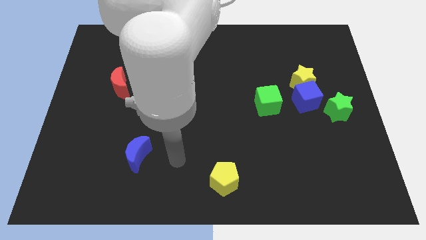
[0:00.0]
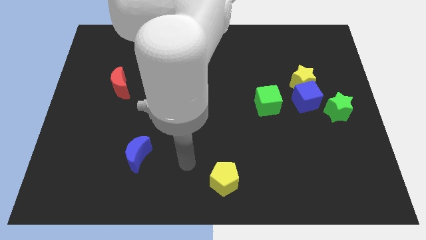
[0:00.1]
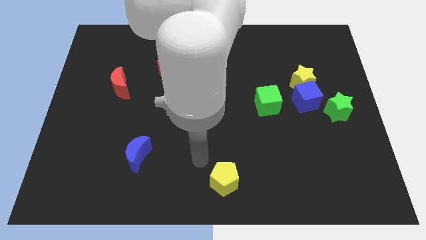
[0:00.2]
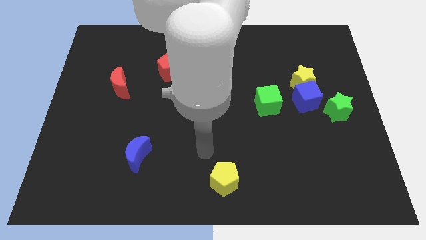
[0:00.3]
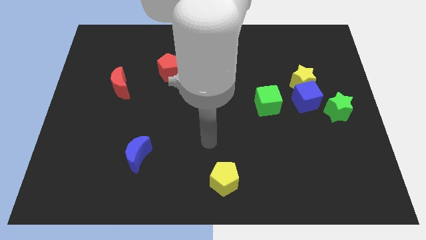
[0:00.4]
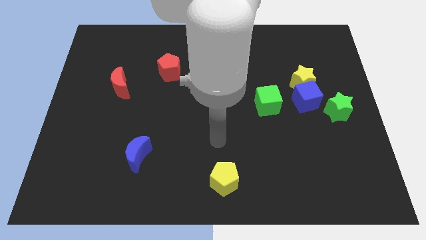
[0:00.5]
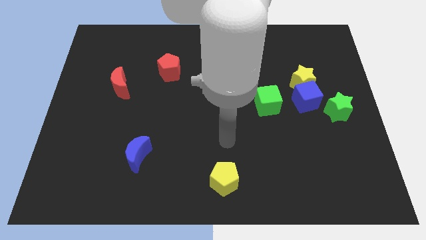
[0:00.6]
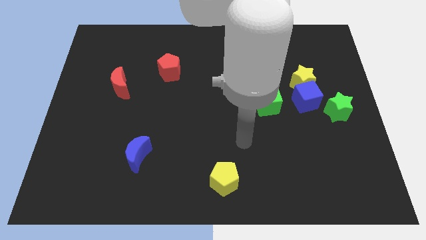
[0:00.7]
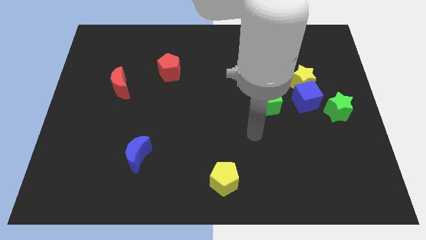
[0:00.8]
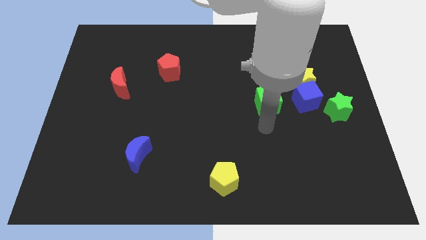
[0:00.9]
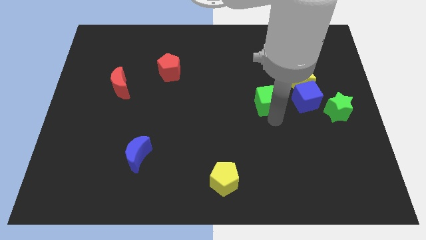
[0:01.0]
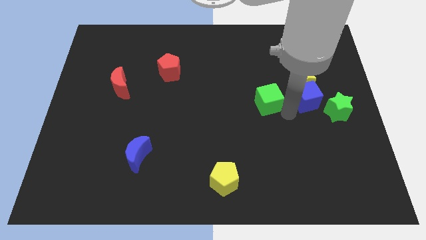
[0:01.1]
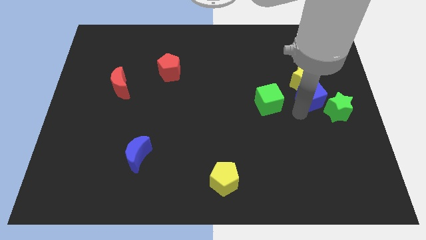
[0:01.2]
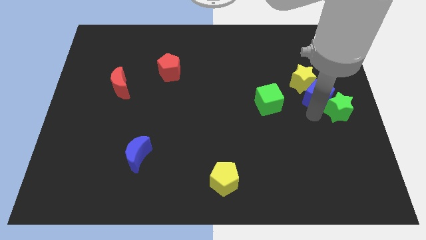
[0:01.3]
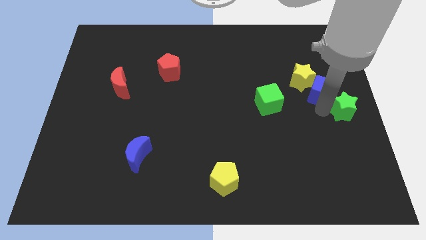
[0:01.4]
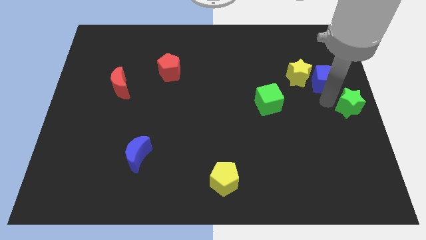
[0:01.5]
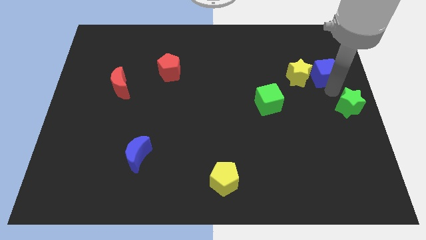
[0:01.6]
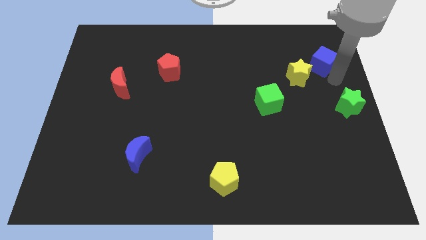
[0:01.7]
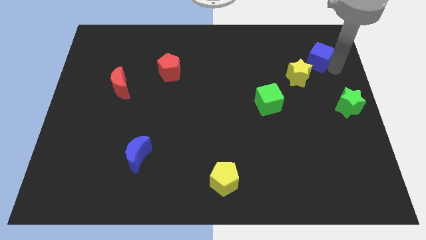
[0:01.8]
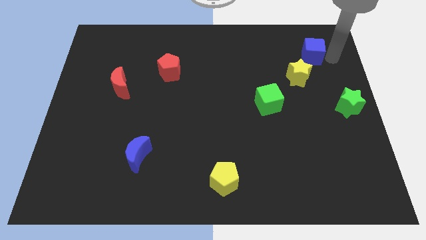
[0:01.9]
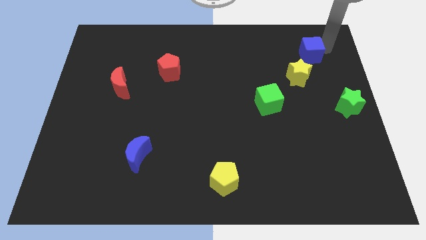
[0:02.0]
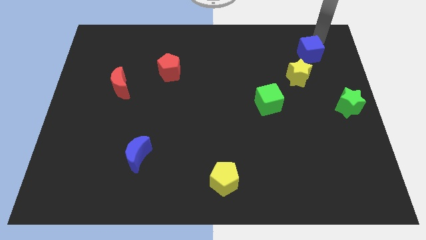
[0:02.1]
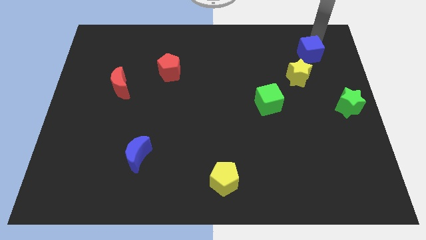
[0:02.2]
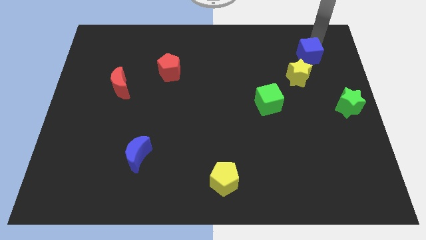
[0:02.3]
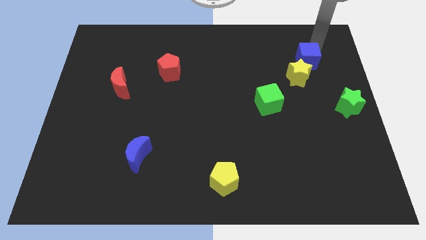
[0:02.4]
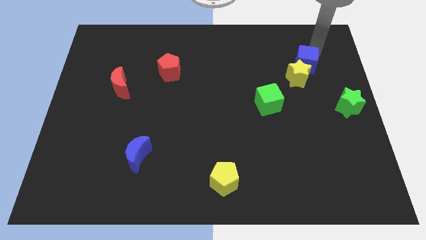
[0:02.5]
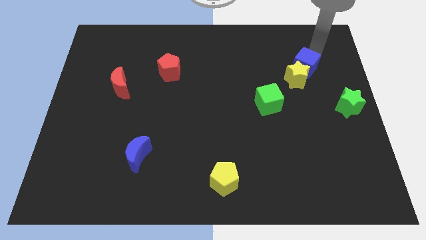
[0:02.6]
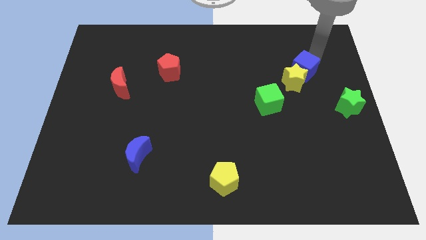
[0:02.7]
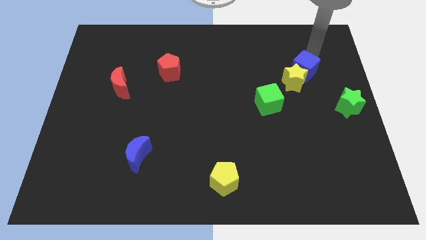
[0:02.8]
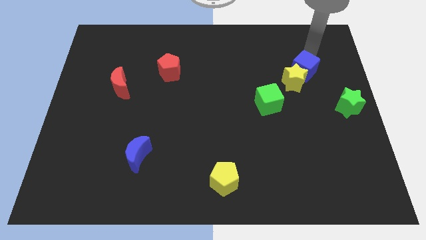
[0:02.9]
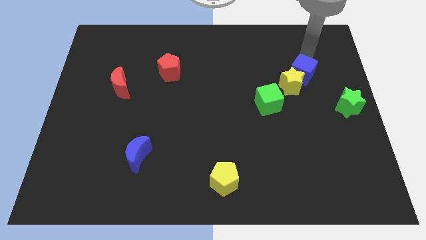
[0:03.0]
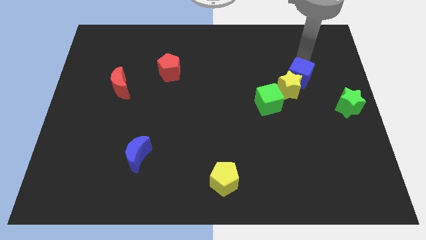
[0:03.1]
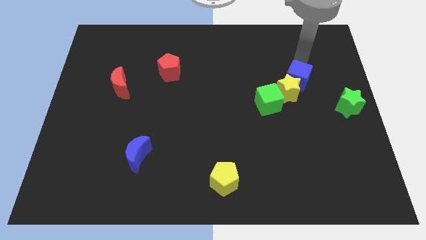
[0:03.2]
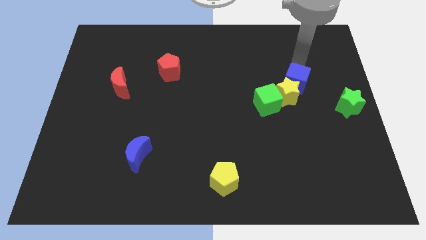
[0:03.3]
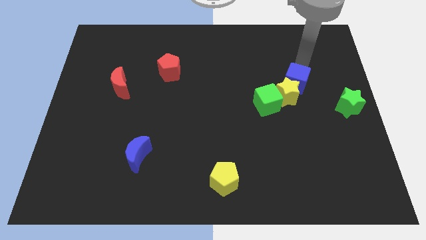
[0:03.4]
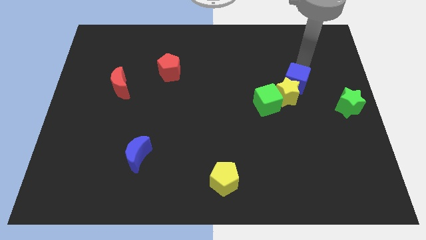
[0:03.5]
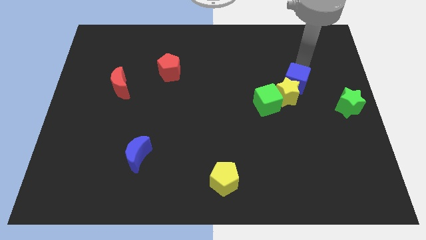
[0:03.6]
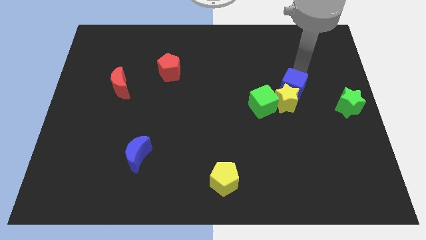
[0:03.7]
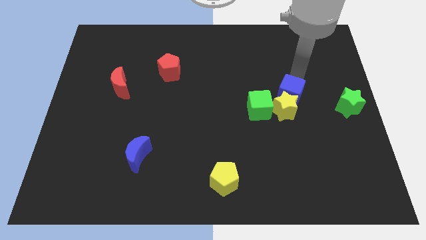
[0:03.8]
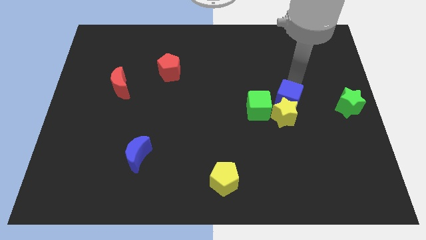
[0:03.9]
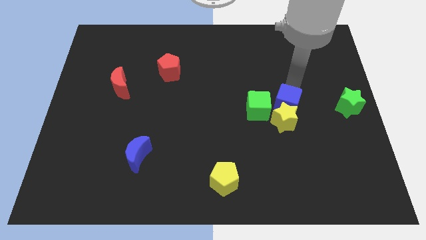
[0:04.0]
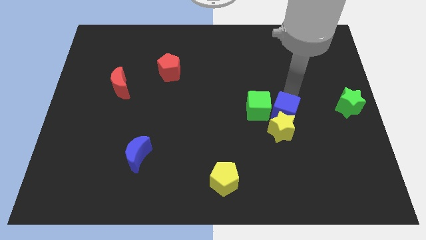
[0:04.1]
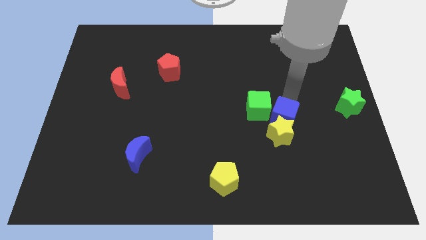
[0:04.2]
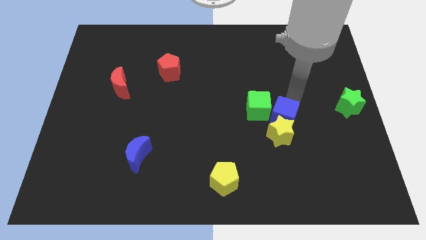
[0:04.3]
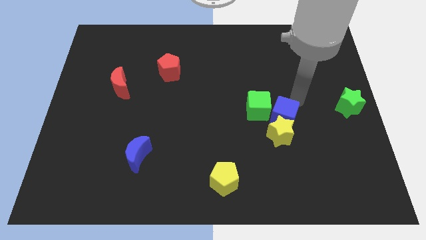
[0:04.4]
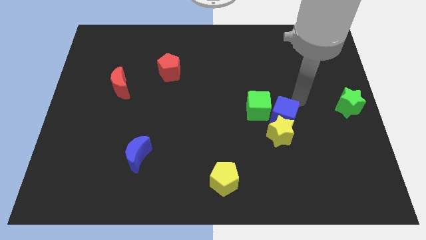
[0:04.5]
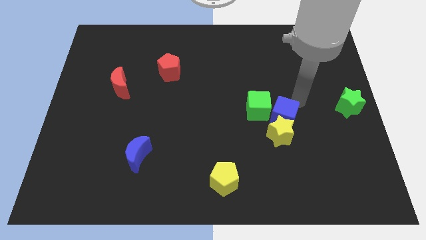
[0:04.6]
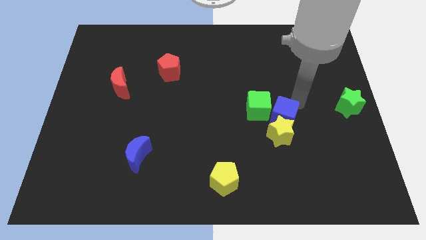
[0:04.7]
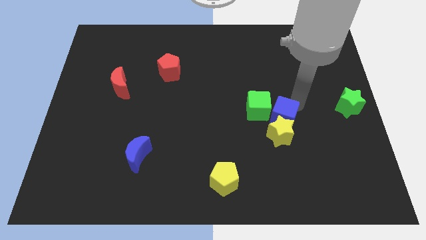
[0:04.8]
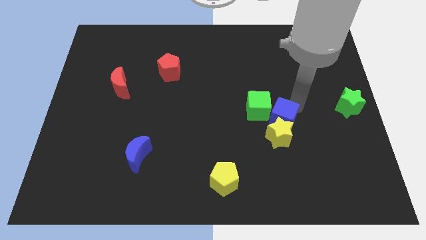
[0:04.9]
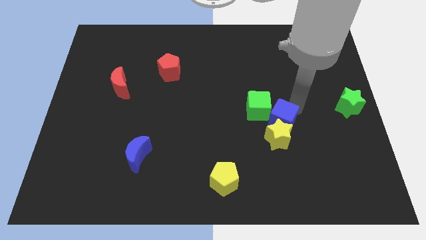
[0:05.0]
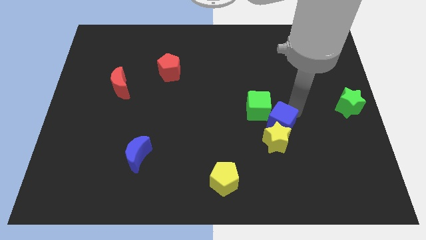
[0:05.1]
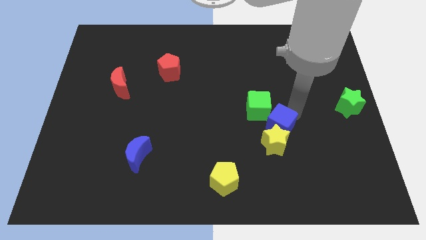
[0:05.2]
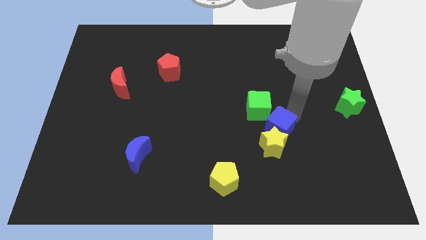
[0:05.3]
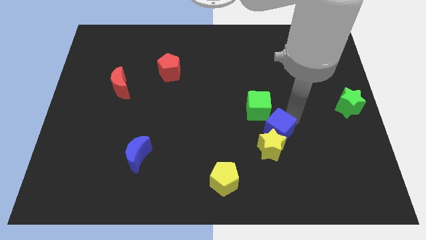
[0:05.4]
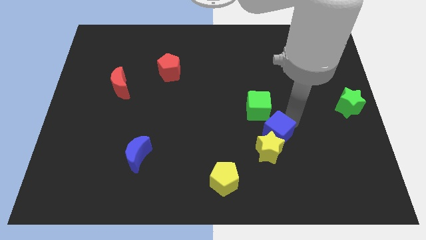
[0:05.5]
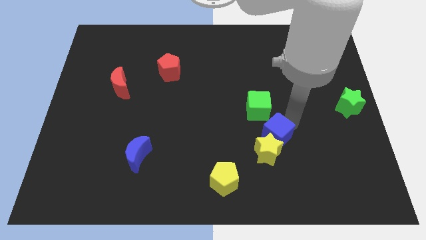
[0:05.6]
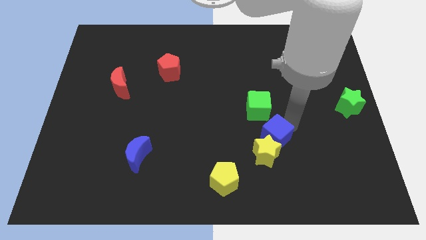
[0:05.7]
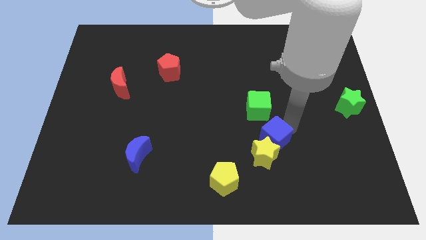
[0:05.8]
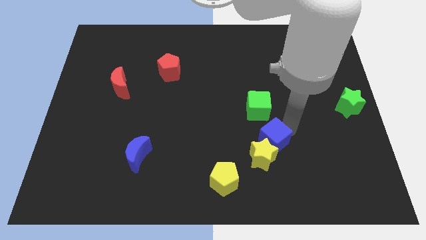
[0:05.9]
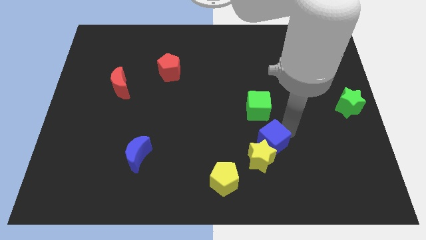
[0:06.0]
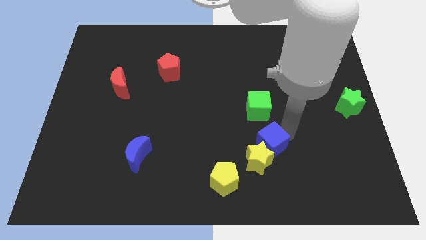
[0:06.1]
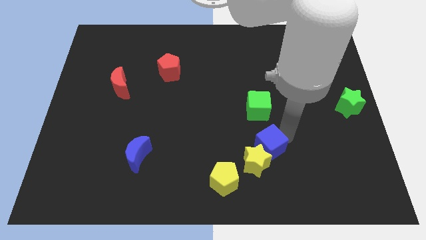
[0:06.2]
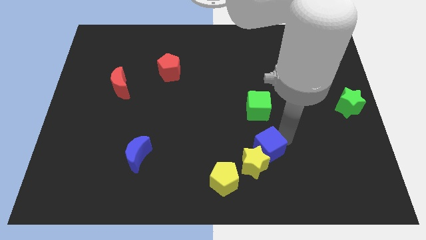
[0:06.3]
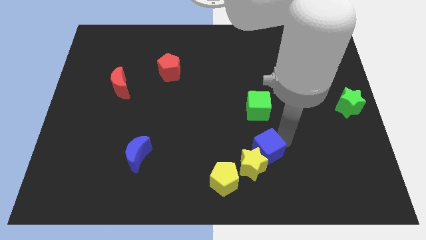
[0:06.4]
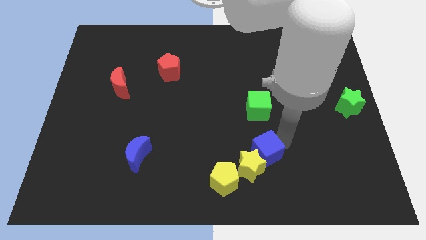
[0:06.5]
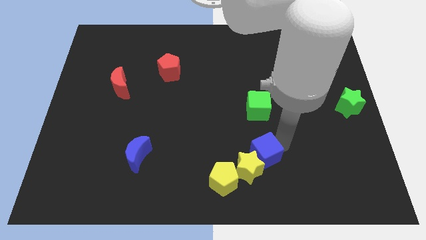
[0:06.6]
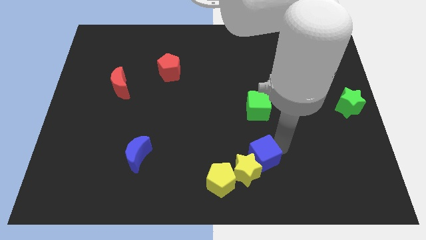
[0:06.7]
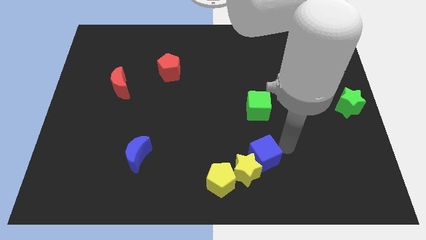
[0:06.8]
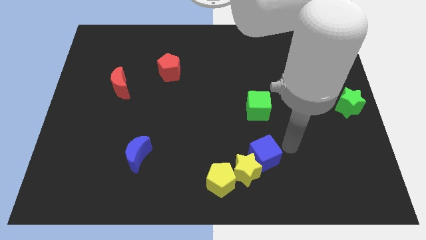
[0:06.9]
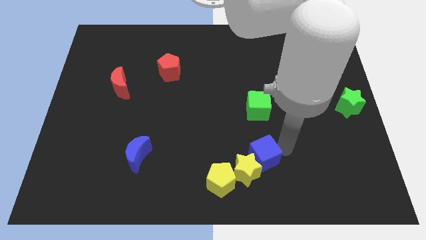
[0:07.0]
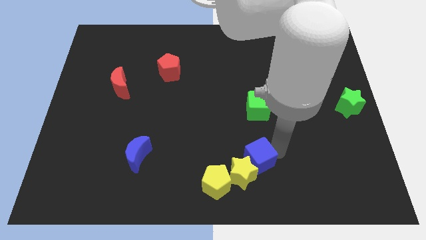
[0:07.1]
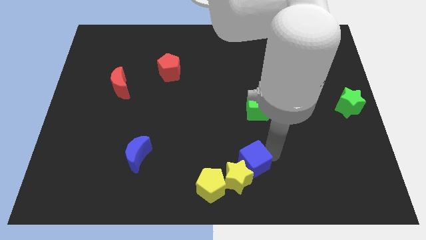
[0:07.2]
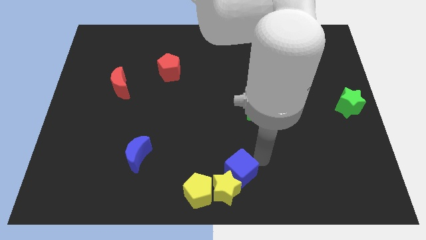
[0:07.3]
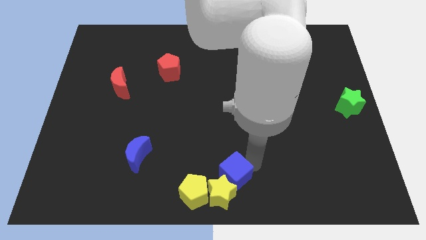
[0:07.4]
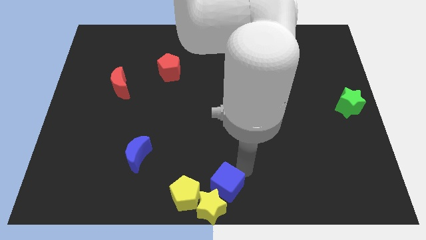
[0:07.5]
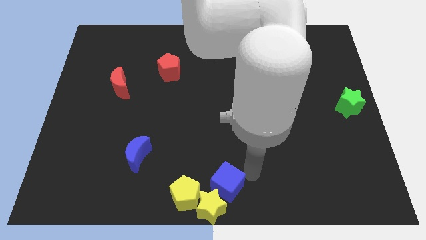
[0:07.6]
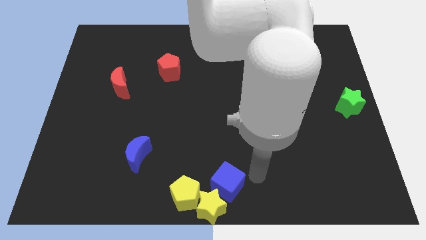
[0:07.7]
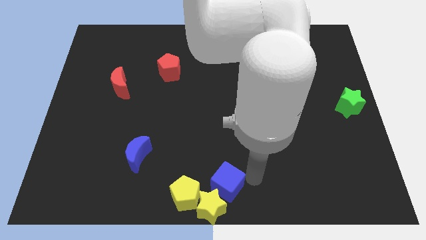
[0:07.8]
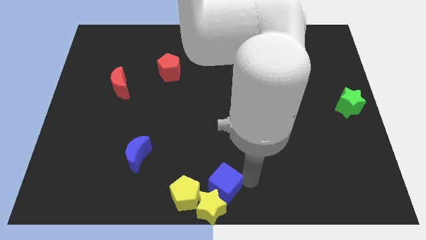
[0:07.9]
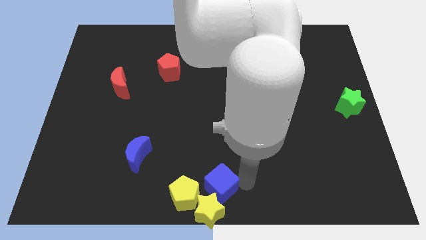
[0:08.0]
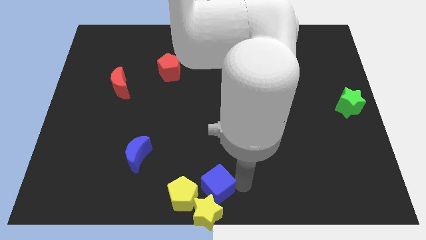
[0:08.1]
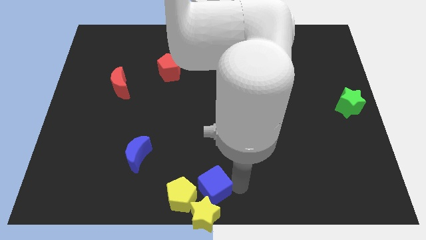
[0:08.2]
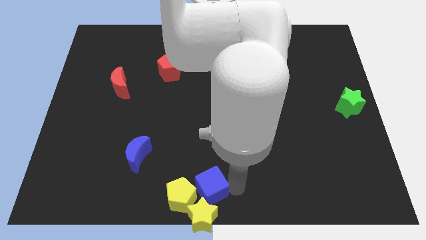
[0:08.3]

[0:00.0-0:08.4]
put the blue cube close to the yellow pentagon
